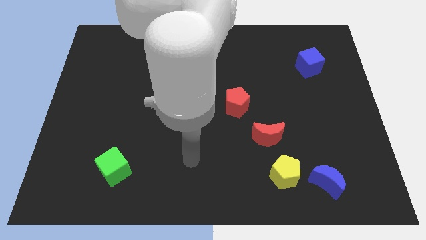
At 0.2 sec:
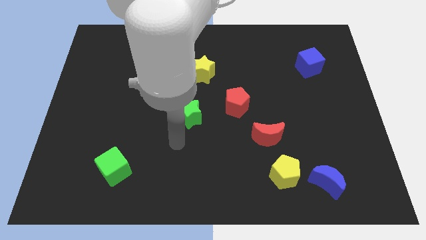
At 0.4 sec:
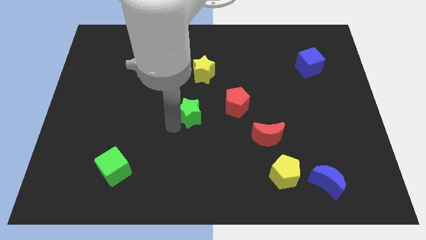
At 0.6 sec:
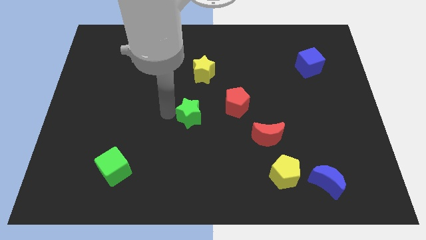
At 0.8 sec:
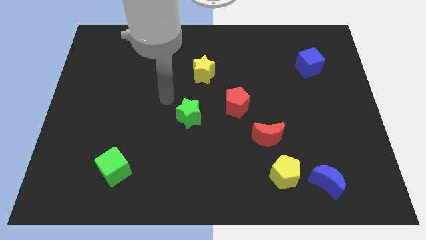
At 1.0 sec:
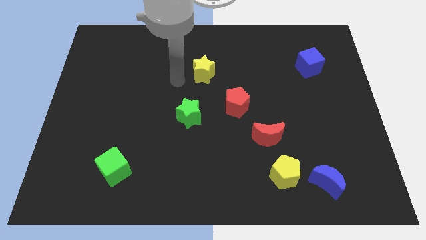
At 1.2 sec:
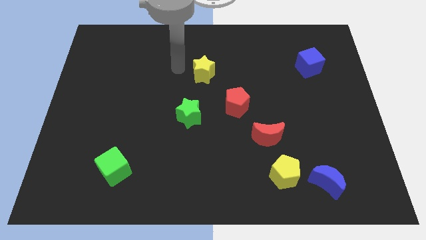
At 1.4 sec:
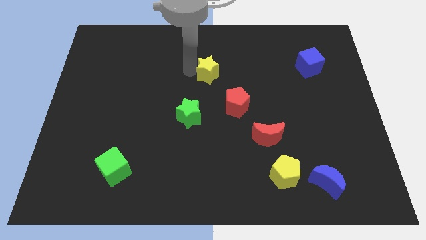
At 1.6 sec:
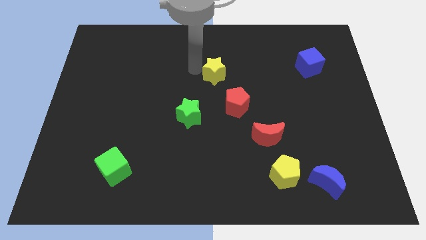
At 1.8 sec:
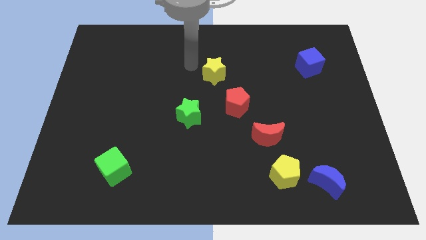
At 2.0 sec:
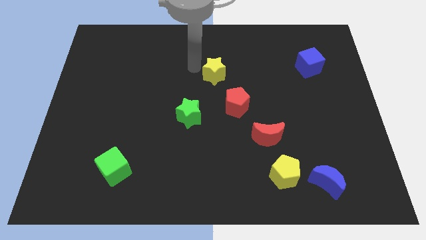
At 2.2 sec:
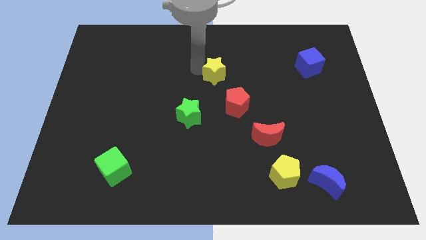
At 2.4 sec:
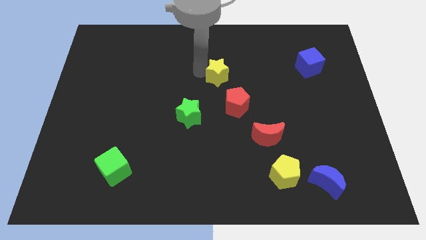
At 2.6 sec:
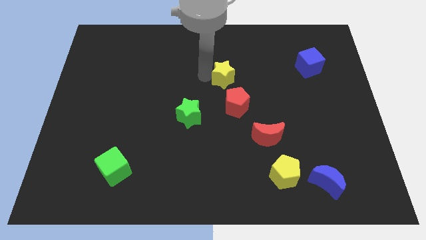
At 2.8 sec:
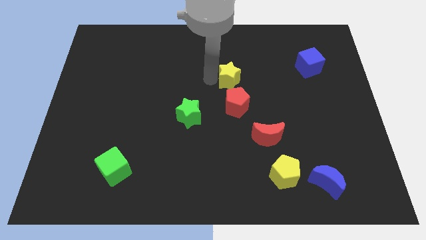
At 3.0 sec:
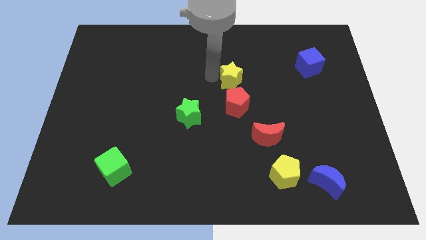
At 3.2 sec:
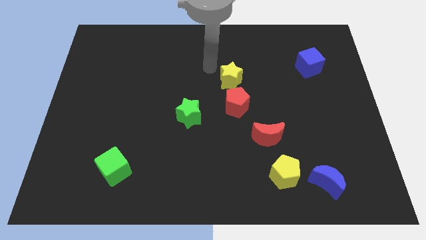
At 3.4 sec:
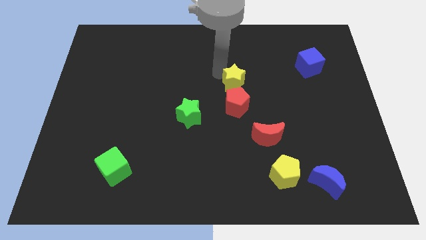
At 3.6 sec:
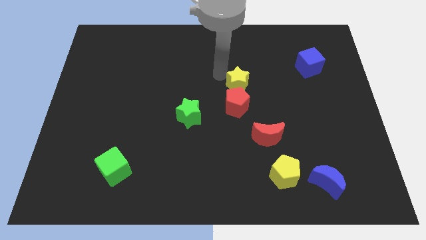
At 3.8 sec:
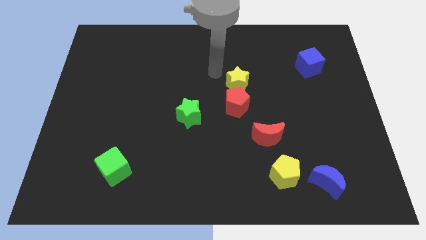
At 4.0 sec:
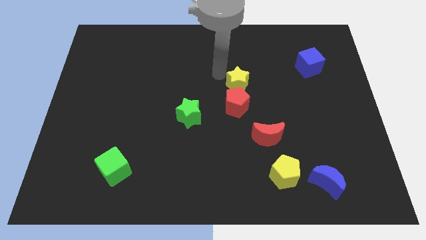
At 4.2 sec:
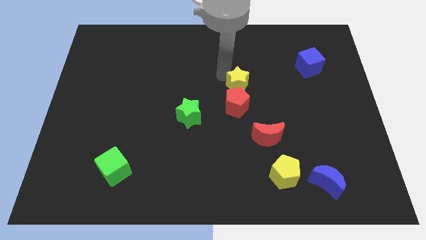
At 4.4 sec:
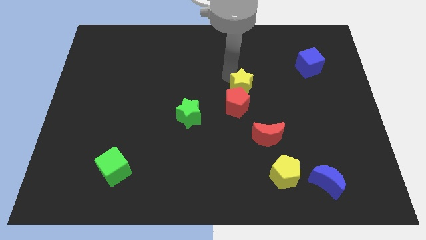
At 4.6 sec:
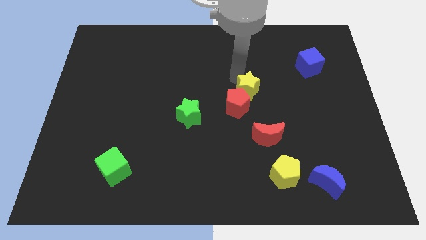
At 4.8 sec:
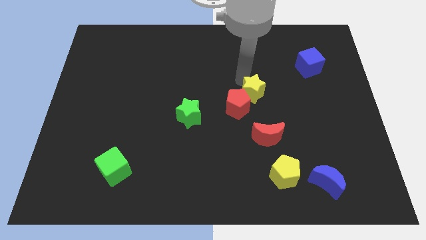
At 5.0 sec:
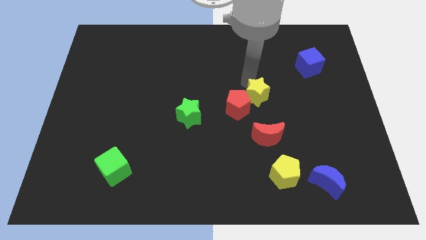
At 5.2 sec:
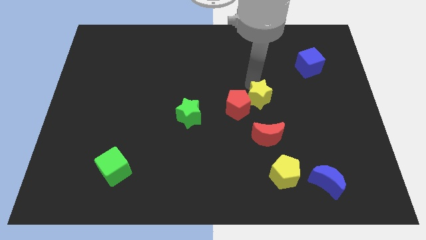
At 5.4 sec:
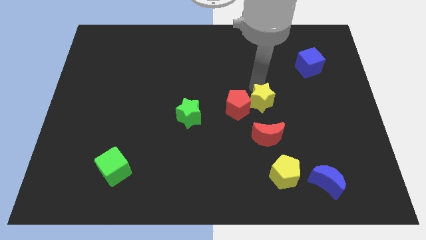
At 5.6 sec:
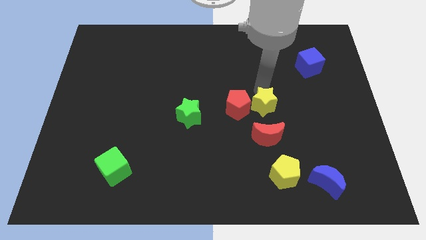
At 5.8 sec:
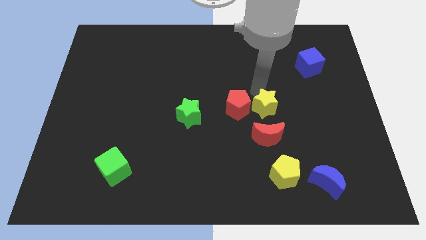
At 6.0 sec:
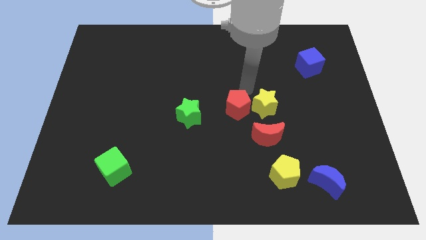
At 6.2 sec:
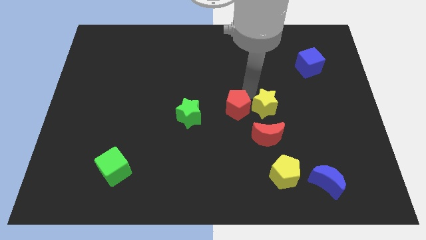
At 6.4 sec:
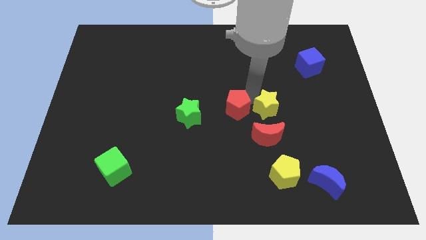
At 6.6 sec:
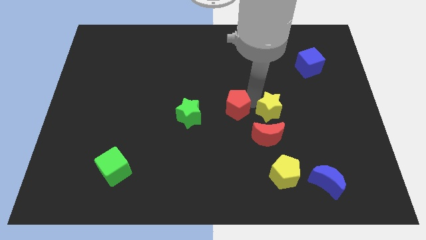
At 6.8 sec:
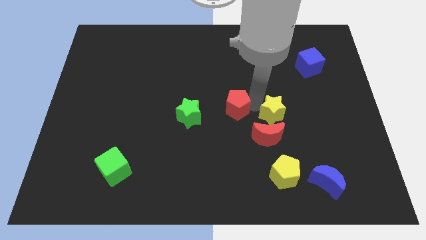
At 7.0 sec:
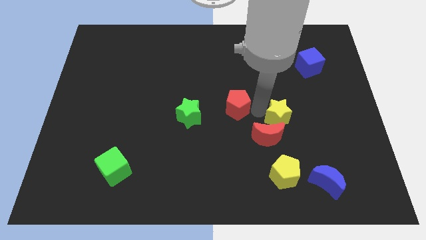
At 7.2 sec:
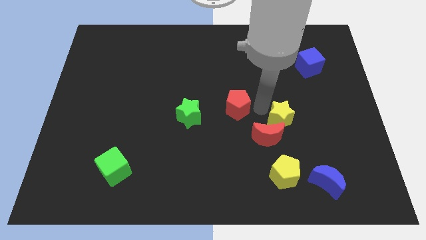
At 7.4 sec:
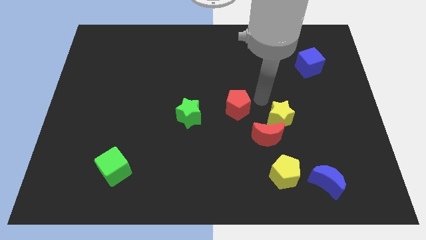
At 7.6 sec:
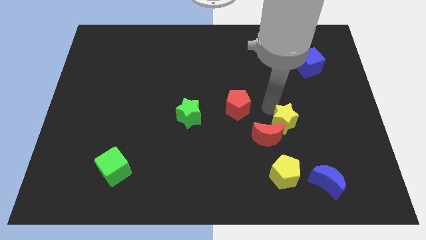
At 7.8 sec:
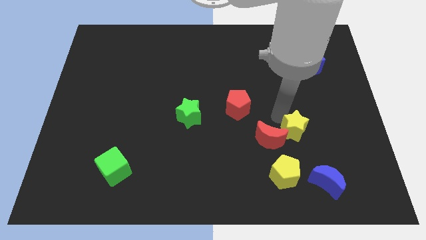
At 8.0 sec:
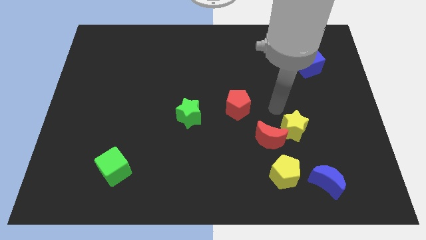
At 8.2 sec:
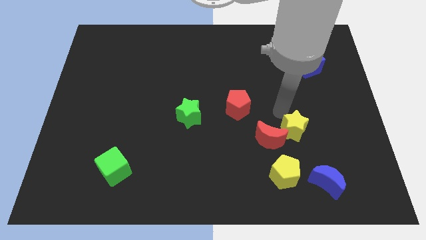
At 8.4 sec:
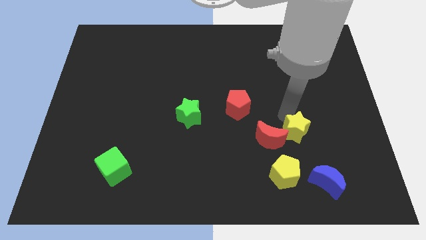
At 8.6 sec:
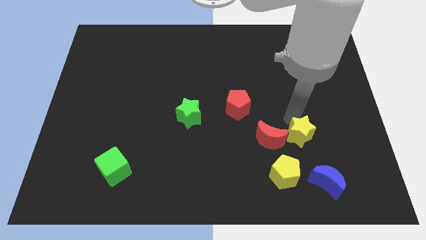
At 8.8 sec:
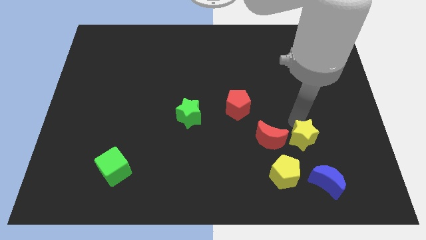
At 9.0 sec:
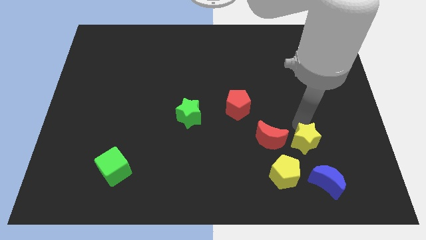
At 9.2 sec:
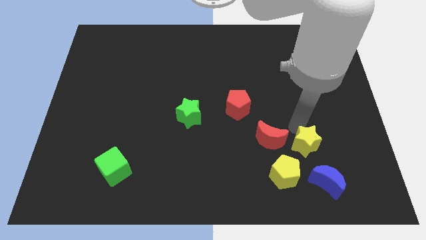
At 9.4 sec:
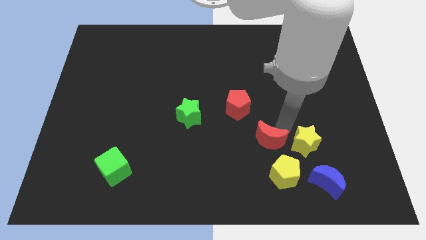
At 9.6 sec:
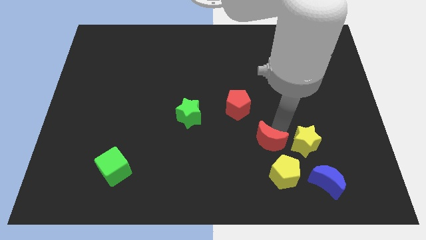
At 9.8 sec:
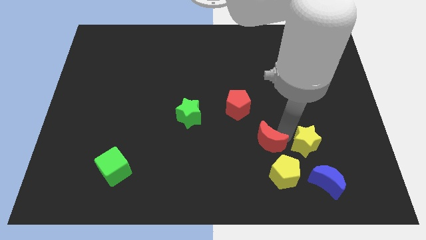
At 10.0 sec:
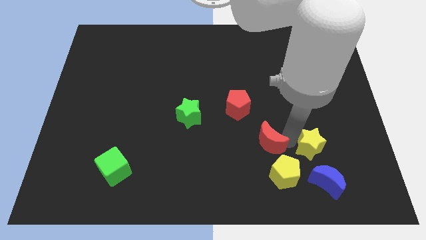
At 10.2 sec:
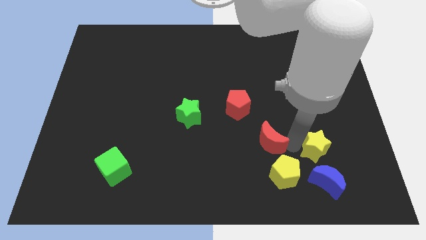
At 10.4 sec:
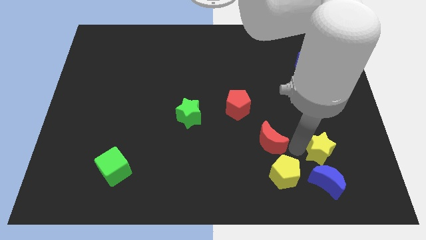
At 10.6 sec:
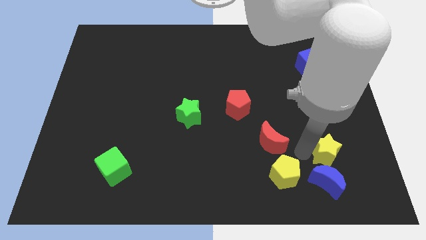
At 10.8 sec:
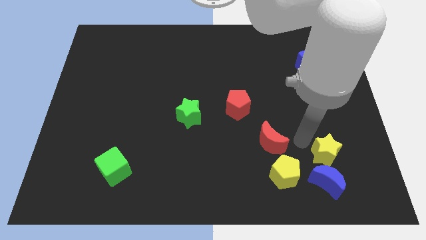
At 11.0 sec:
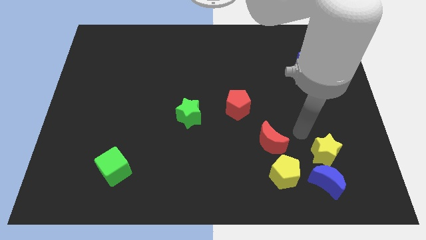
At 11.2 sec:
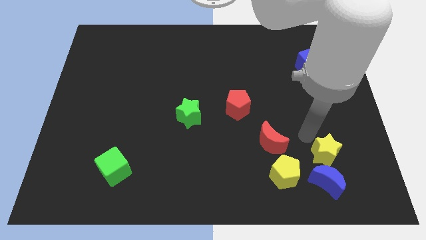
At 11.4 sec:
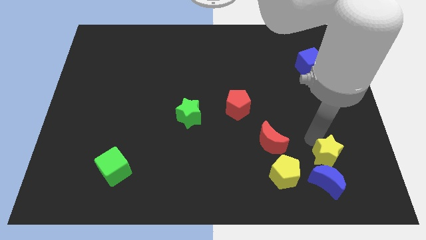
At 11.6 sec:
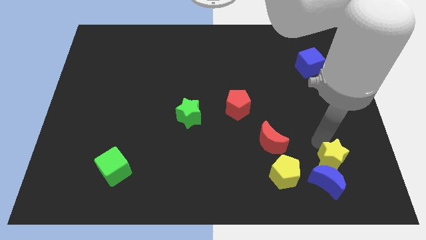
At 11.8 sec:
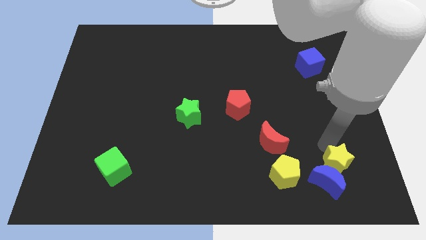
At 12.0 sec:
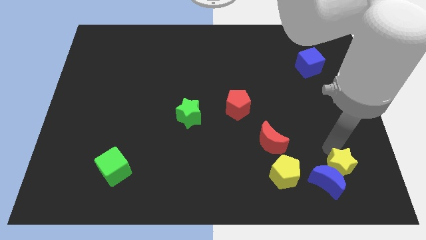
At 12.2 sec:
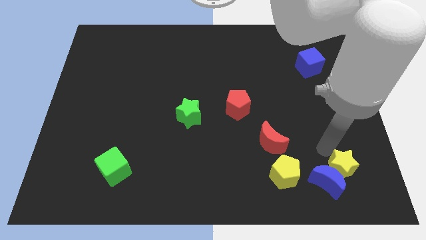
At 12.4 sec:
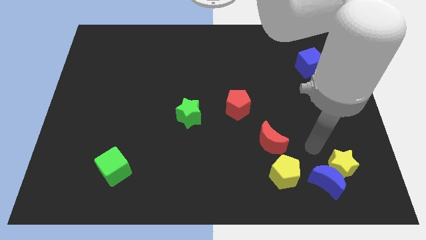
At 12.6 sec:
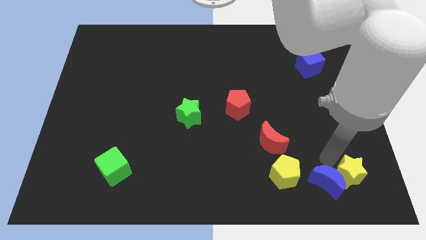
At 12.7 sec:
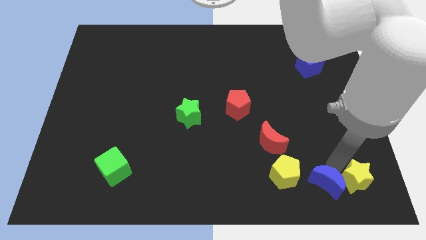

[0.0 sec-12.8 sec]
put the yellow star to the bottom right
